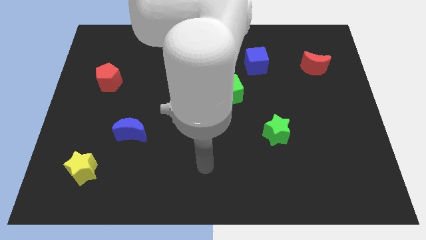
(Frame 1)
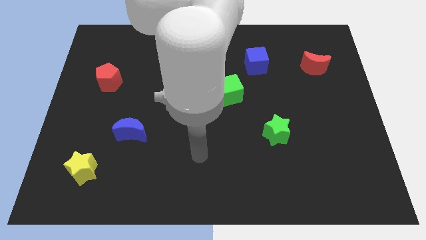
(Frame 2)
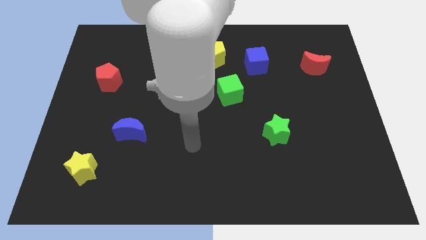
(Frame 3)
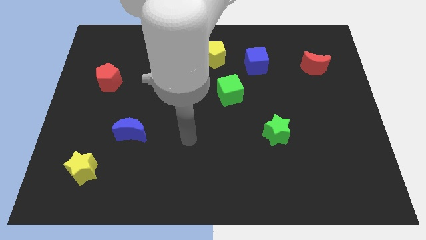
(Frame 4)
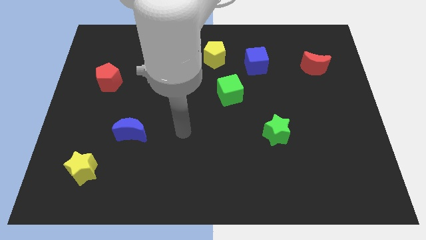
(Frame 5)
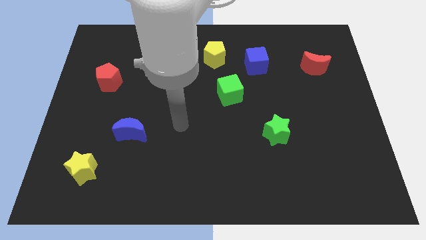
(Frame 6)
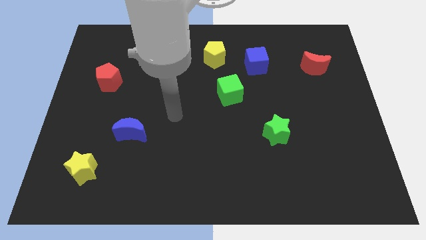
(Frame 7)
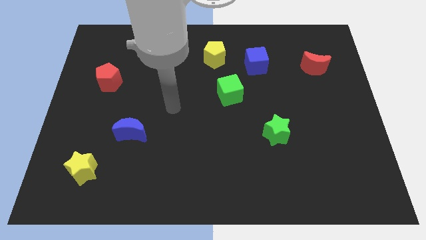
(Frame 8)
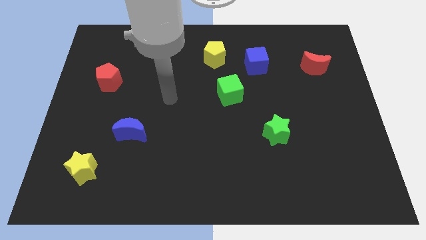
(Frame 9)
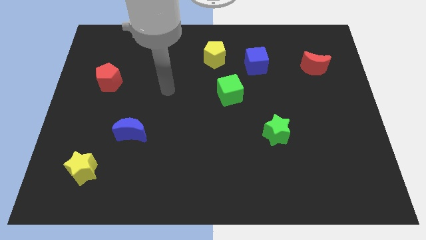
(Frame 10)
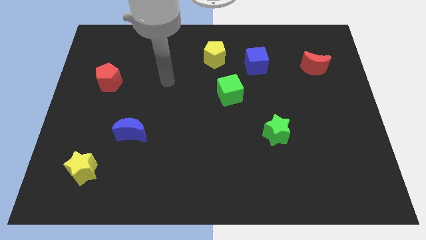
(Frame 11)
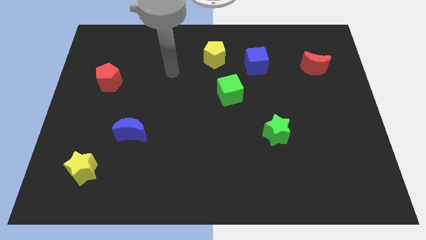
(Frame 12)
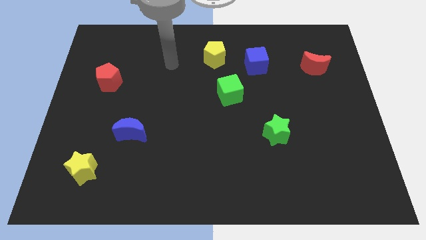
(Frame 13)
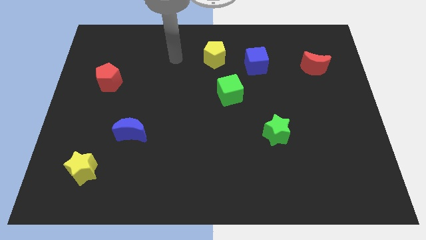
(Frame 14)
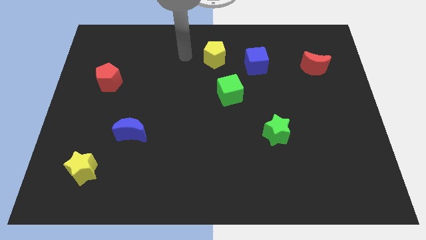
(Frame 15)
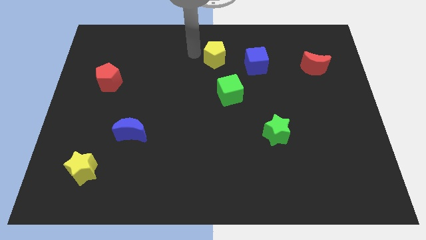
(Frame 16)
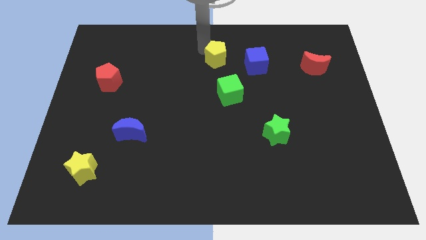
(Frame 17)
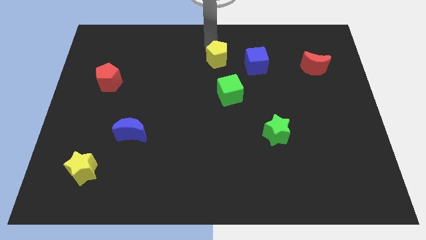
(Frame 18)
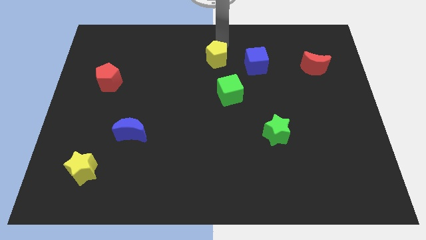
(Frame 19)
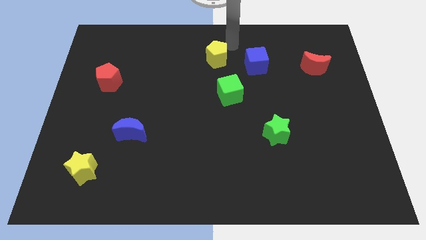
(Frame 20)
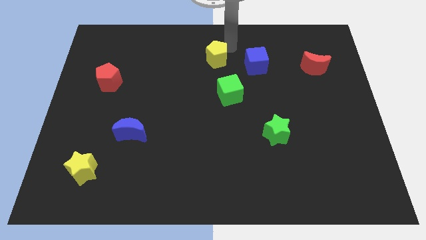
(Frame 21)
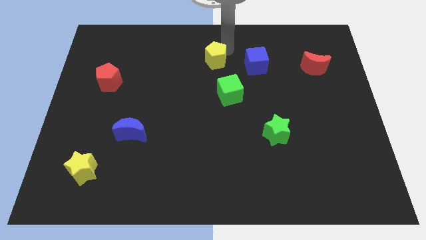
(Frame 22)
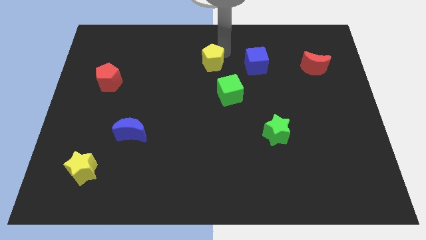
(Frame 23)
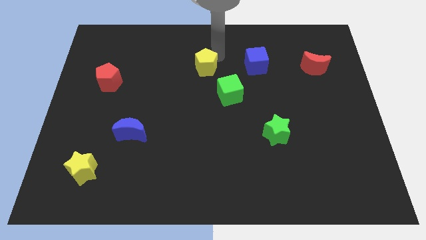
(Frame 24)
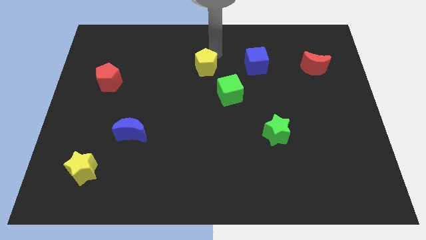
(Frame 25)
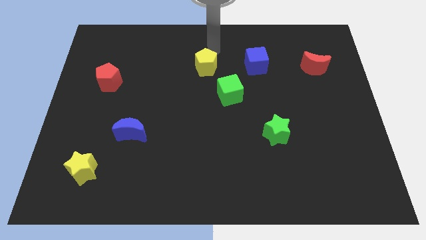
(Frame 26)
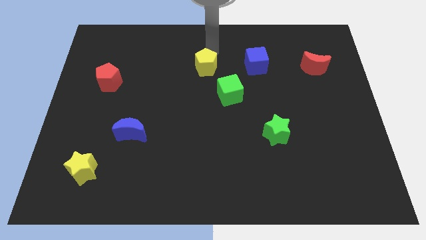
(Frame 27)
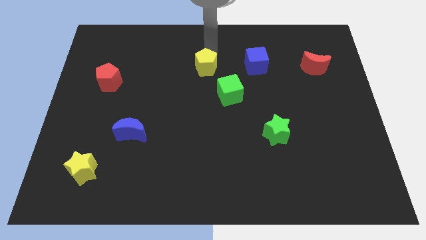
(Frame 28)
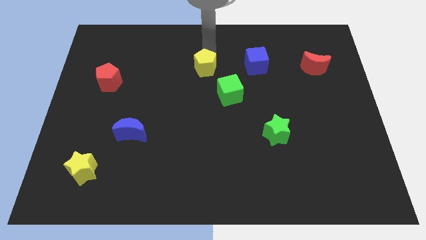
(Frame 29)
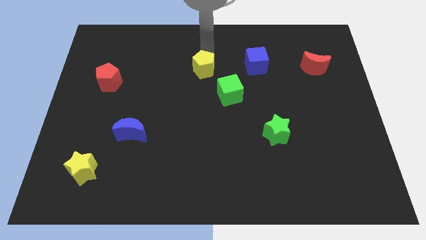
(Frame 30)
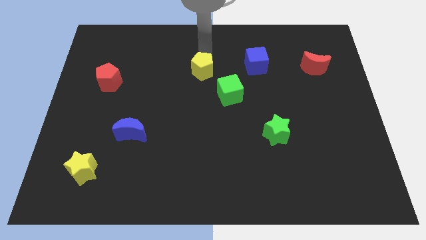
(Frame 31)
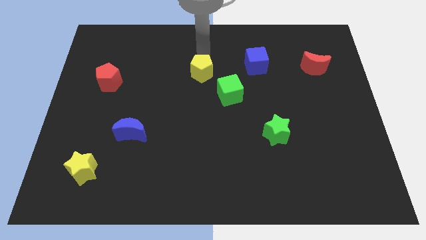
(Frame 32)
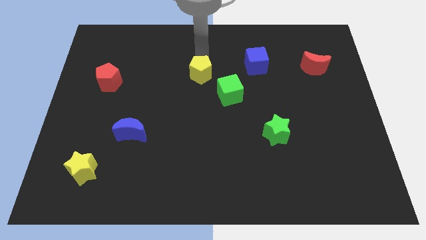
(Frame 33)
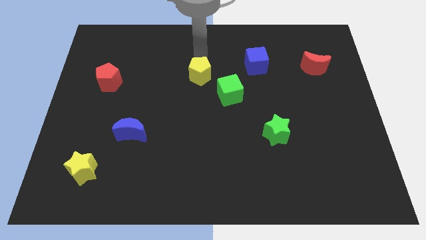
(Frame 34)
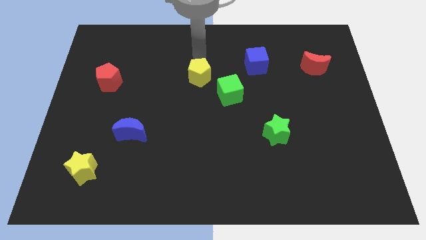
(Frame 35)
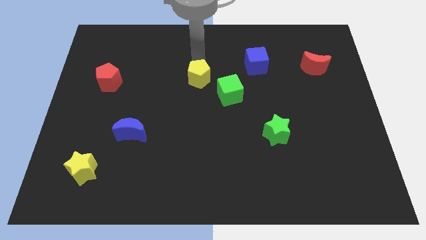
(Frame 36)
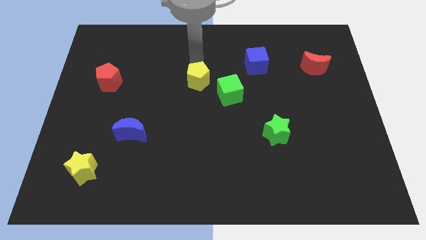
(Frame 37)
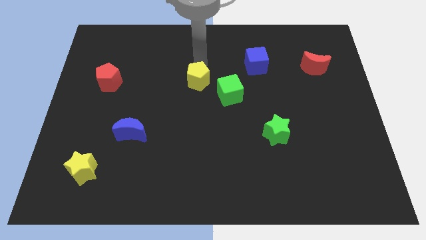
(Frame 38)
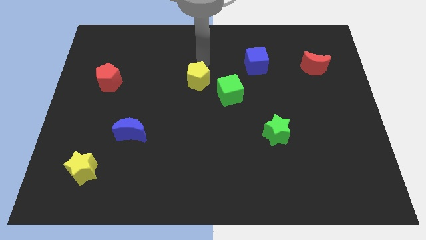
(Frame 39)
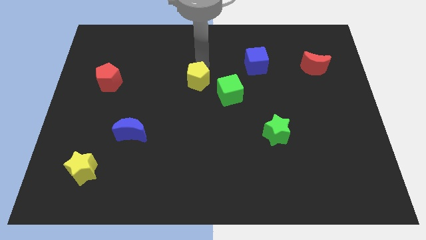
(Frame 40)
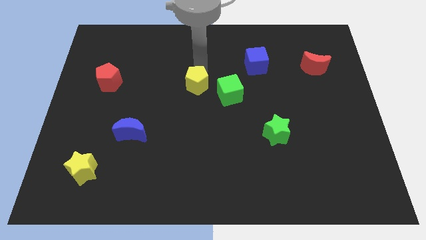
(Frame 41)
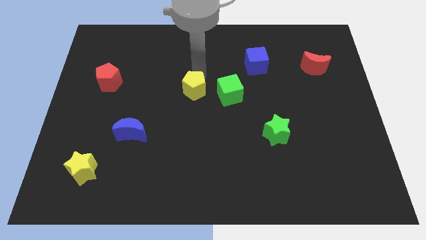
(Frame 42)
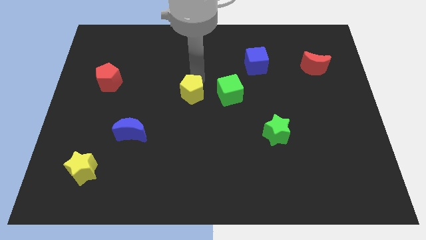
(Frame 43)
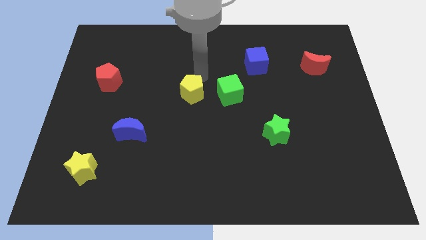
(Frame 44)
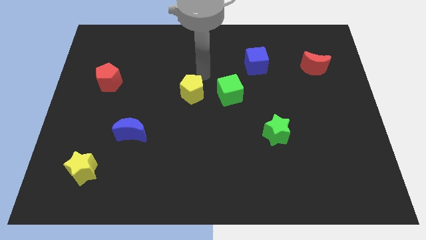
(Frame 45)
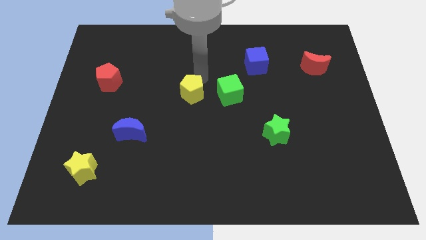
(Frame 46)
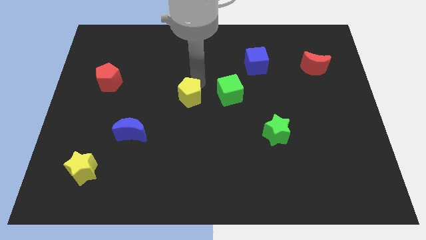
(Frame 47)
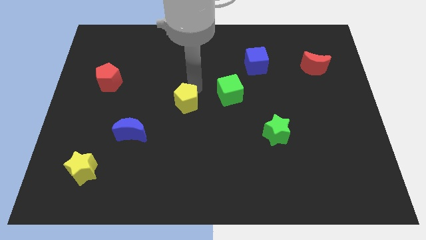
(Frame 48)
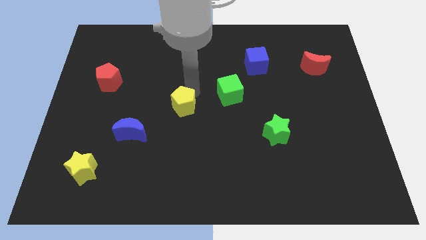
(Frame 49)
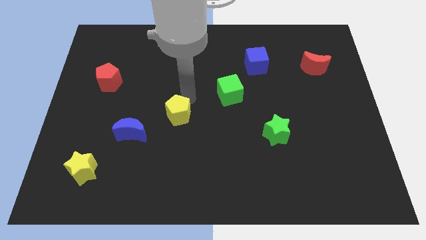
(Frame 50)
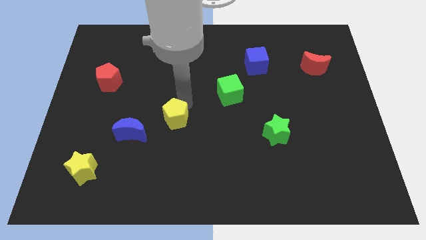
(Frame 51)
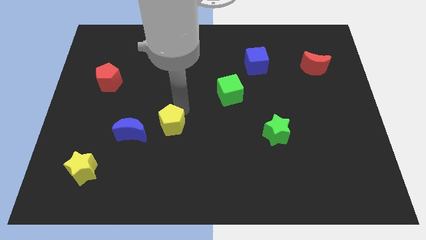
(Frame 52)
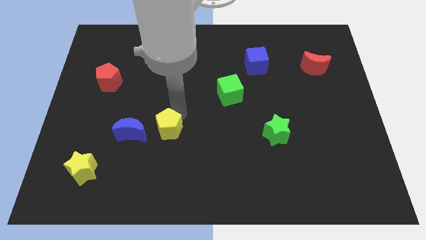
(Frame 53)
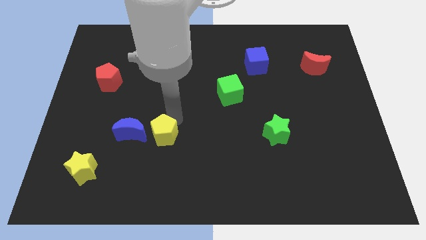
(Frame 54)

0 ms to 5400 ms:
slide the yellow pentagon to the bottom right side of the blue moon

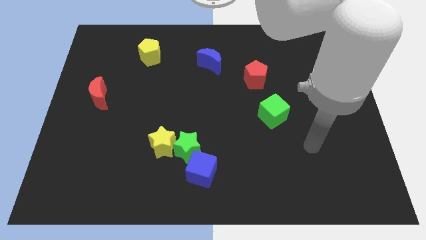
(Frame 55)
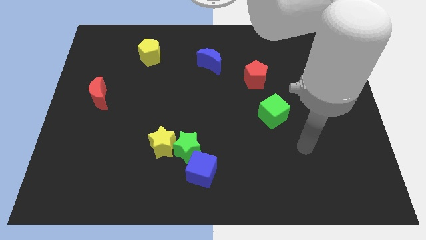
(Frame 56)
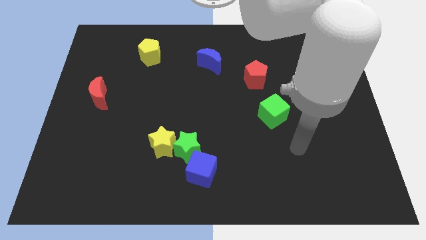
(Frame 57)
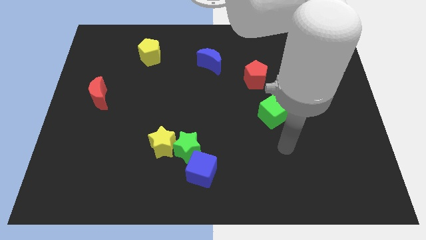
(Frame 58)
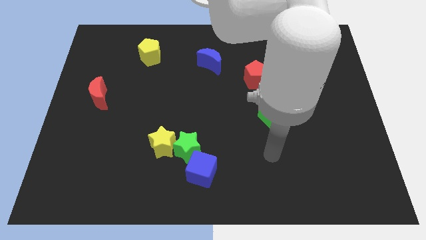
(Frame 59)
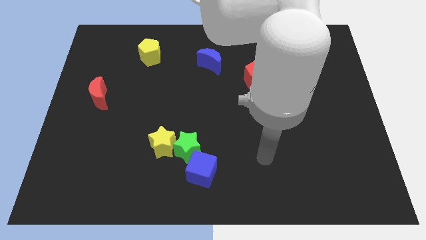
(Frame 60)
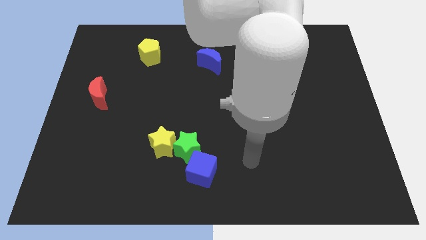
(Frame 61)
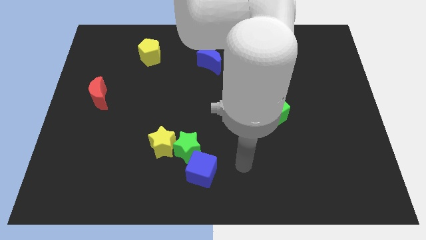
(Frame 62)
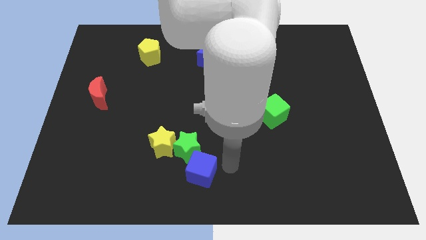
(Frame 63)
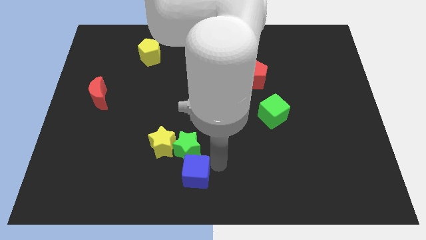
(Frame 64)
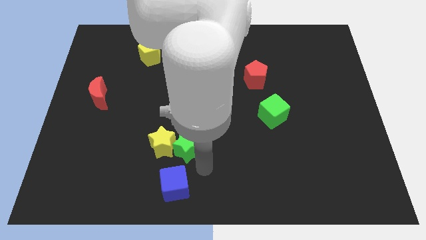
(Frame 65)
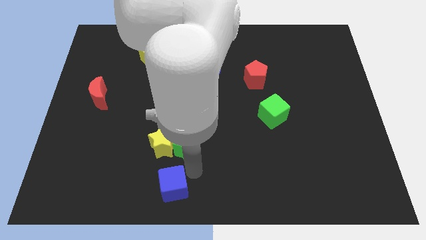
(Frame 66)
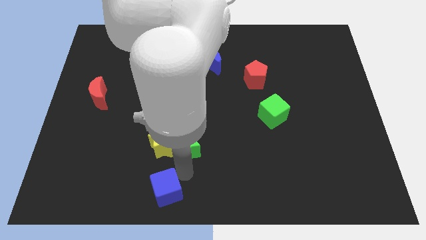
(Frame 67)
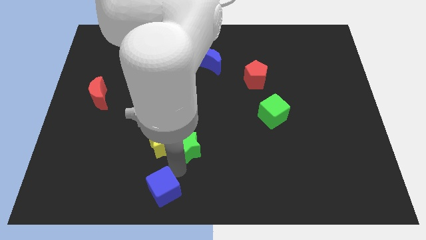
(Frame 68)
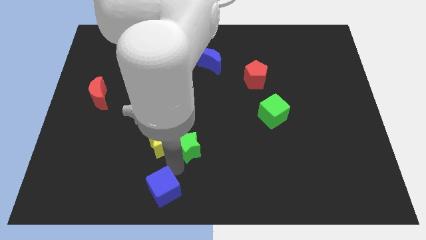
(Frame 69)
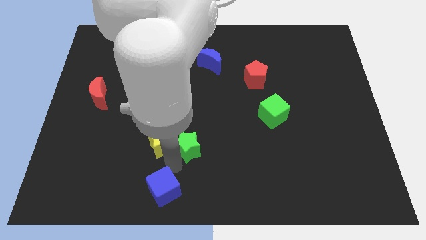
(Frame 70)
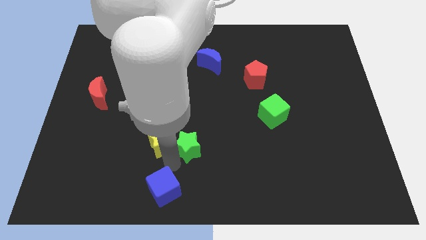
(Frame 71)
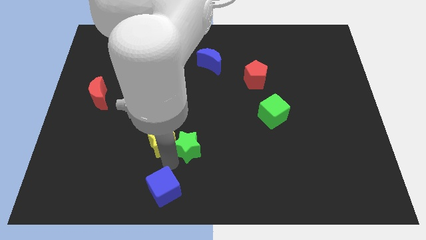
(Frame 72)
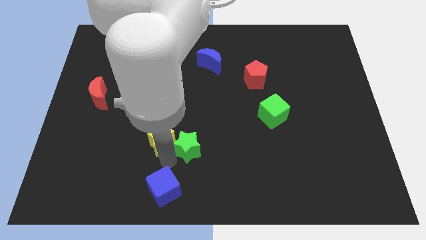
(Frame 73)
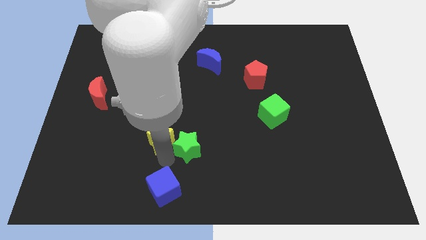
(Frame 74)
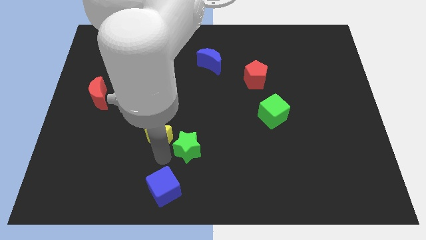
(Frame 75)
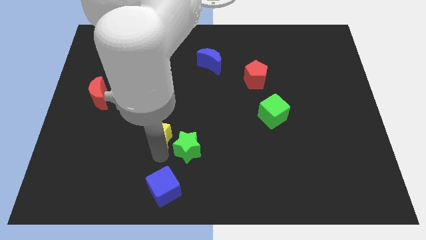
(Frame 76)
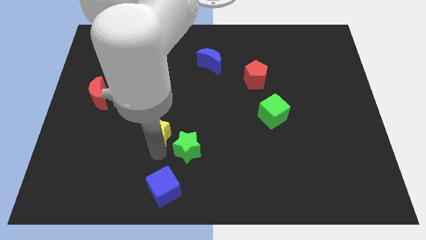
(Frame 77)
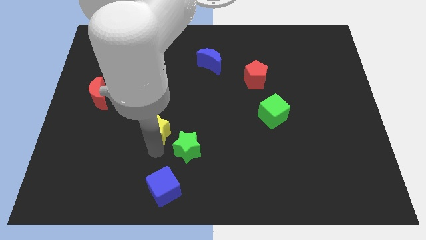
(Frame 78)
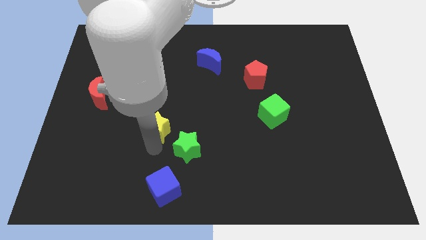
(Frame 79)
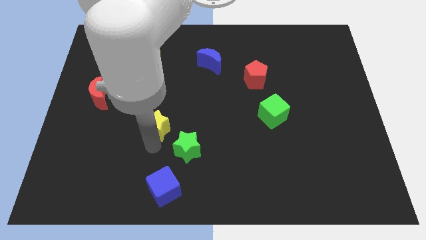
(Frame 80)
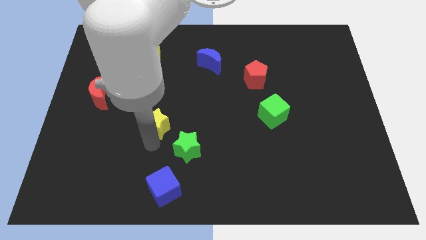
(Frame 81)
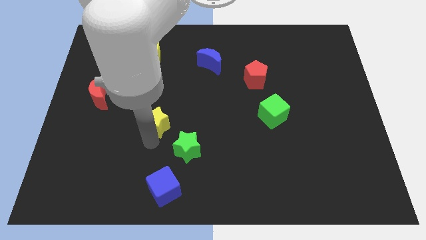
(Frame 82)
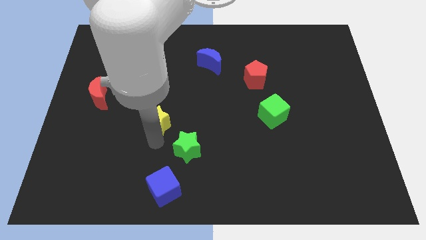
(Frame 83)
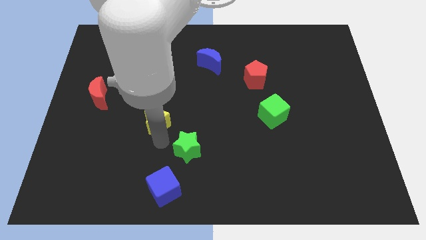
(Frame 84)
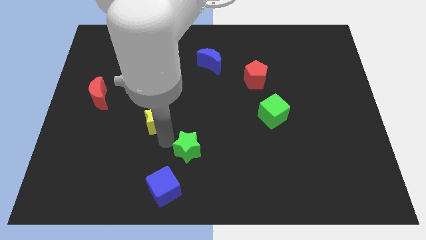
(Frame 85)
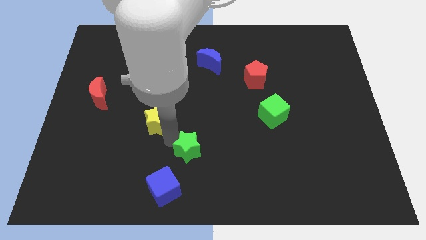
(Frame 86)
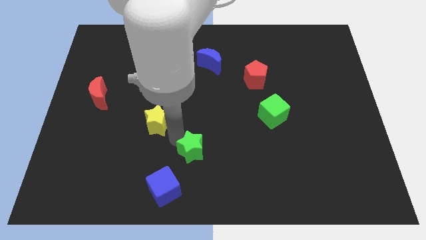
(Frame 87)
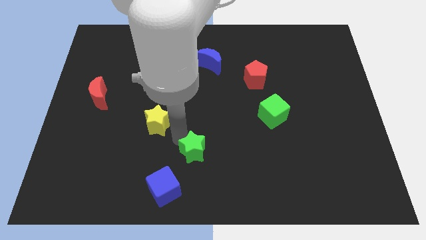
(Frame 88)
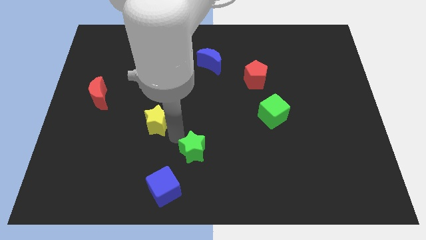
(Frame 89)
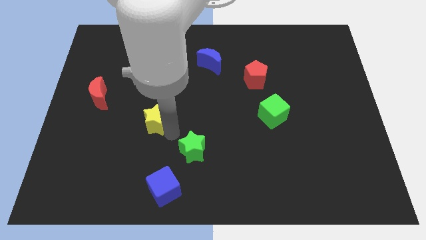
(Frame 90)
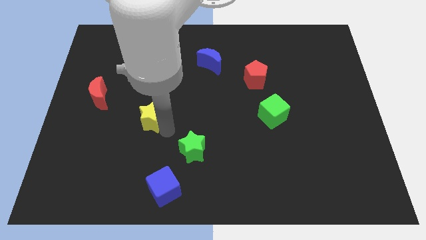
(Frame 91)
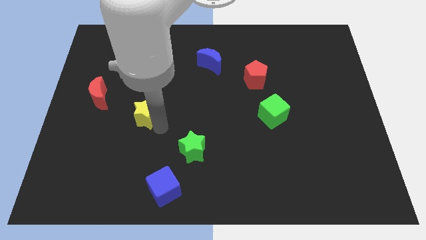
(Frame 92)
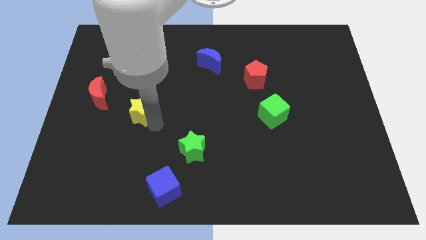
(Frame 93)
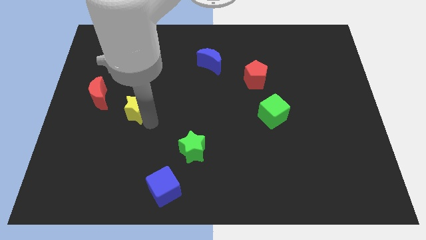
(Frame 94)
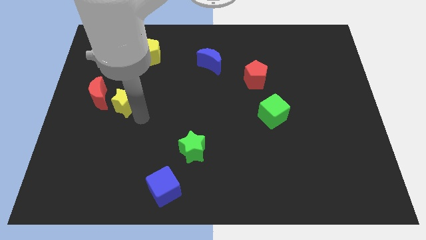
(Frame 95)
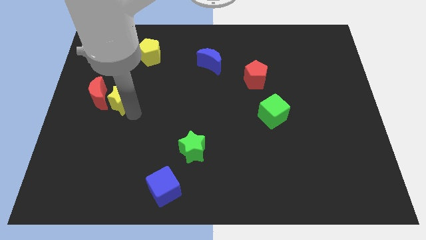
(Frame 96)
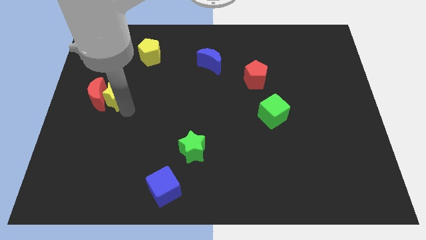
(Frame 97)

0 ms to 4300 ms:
slide the yellow star diagonally up and to the right of the red moon
